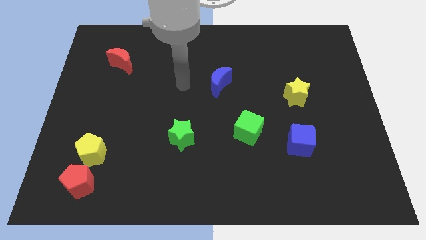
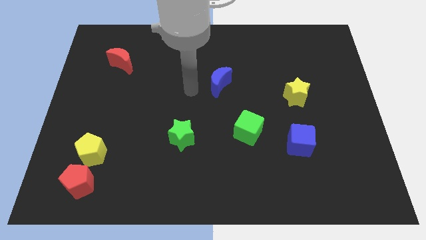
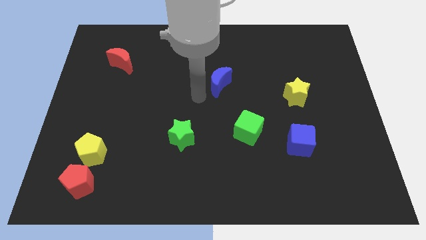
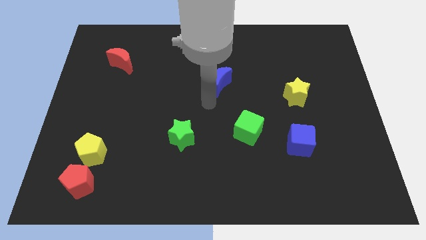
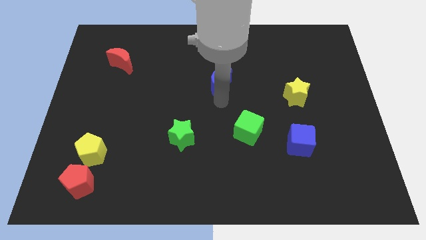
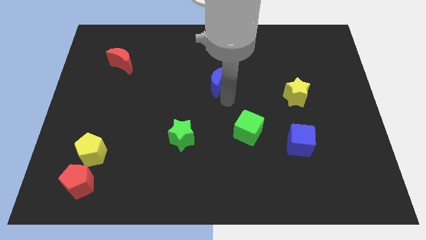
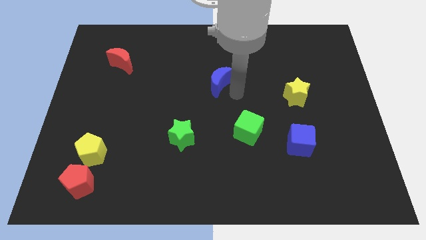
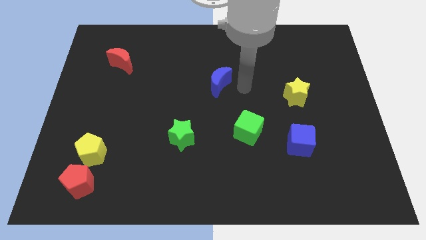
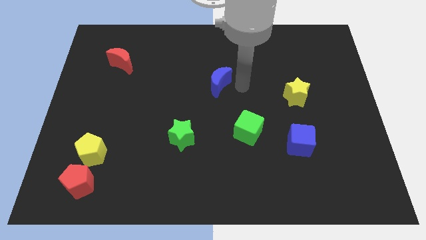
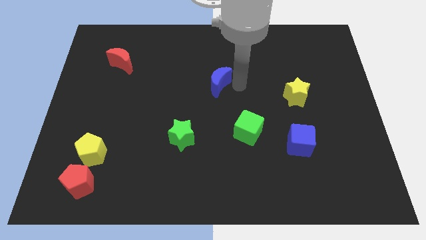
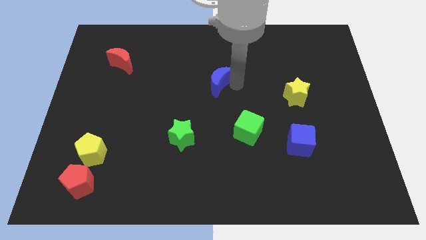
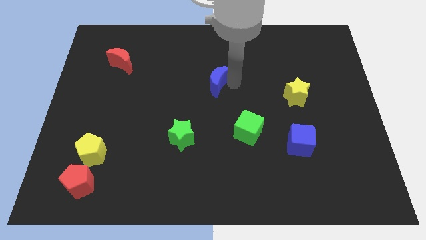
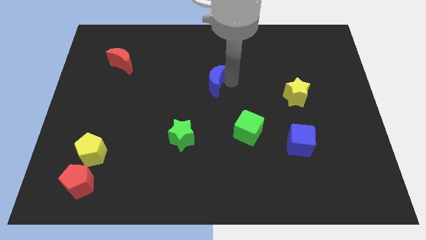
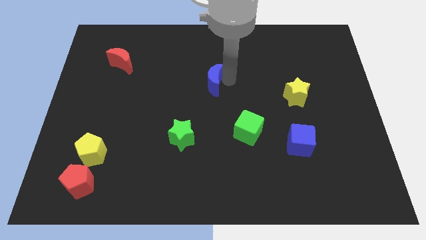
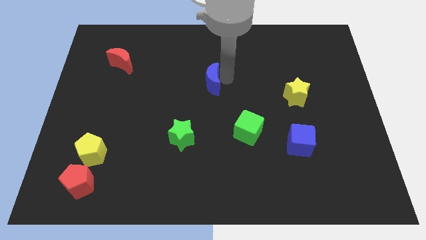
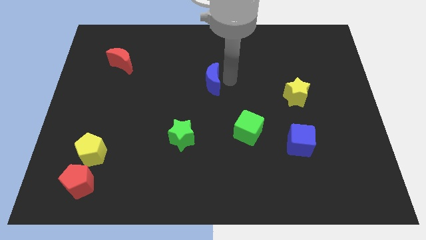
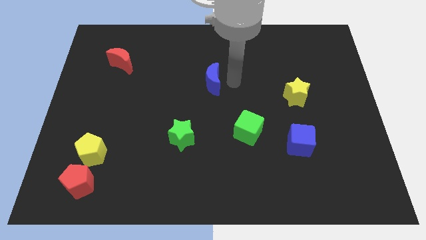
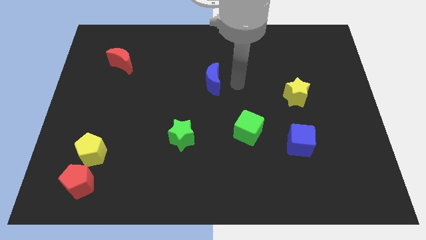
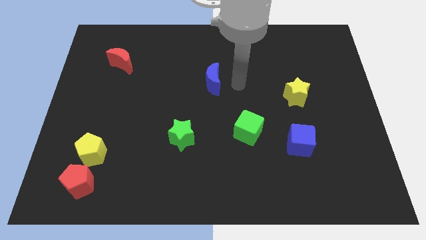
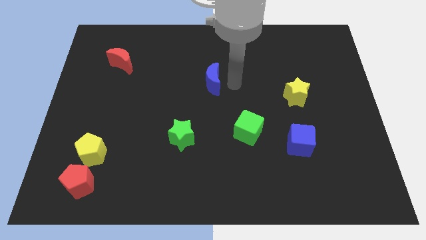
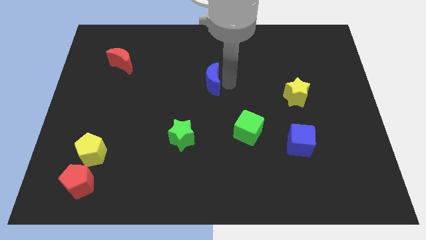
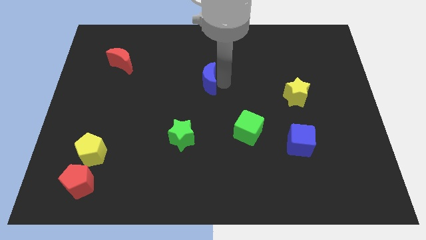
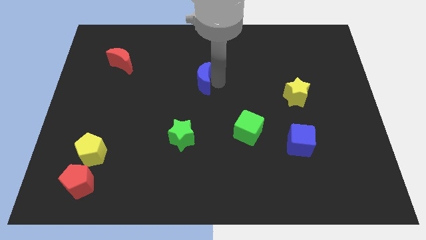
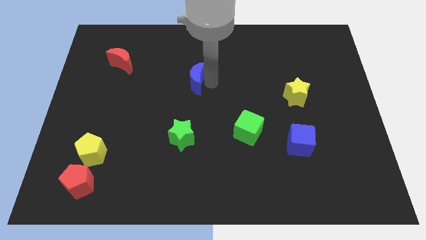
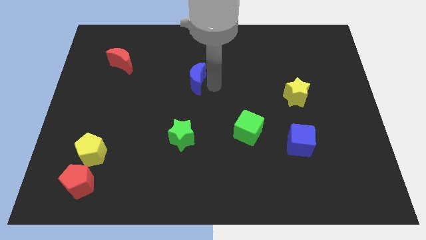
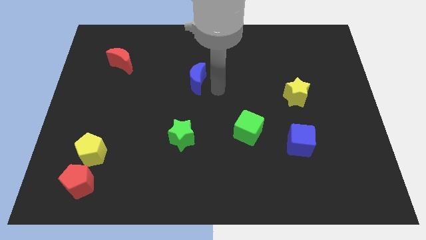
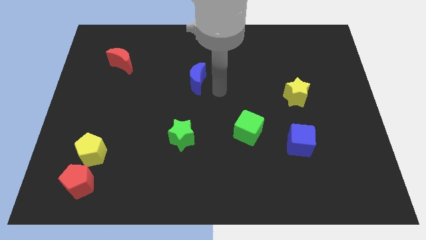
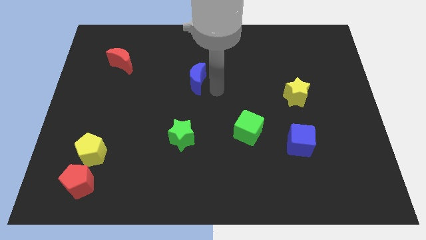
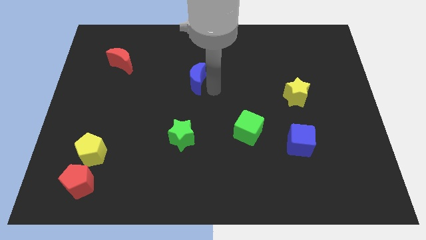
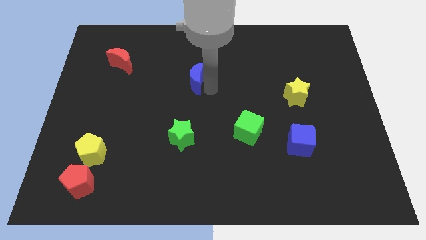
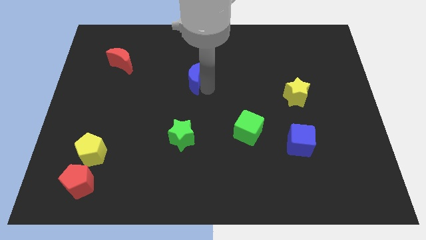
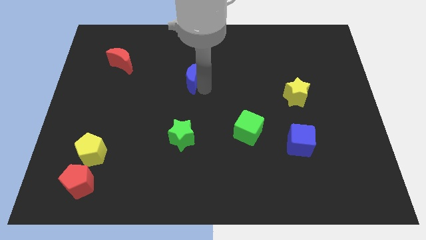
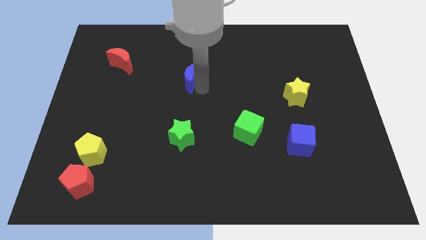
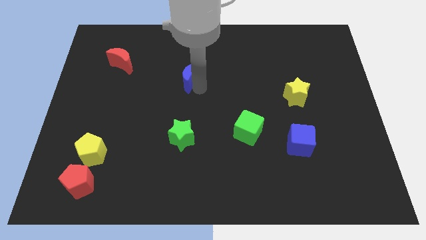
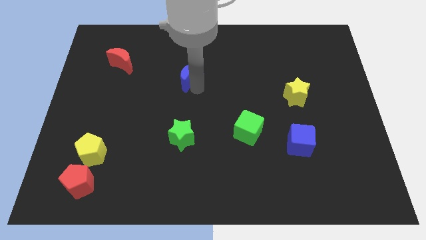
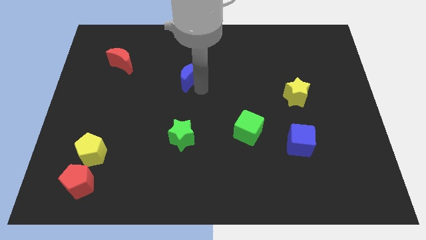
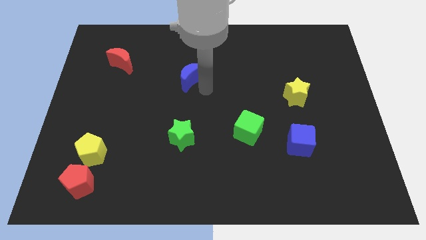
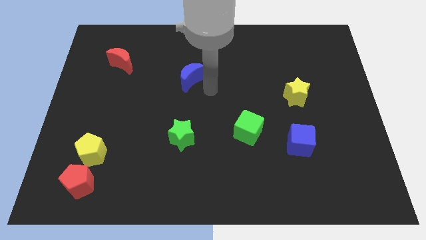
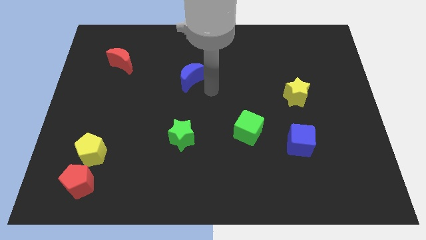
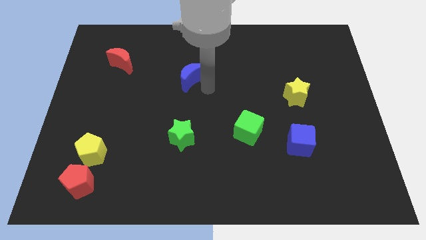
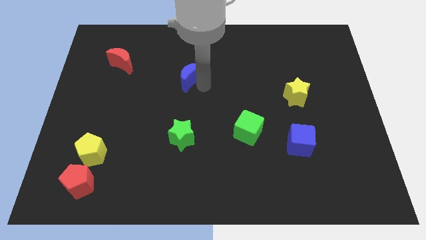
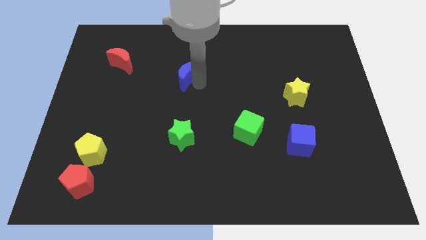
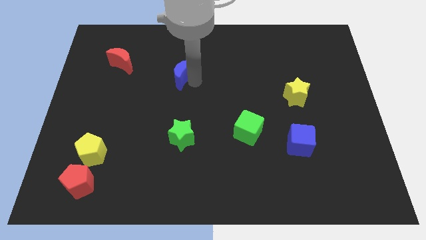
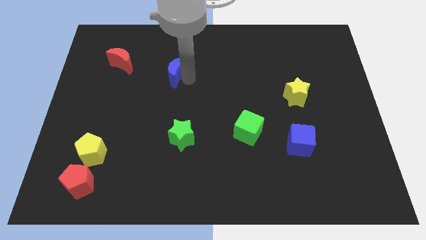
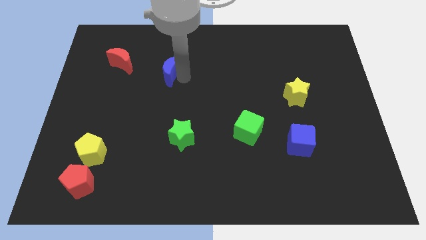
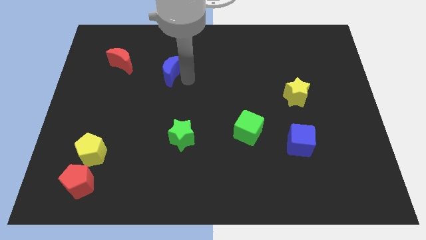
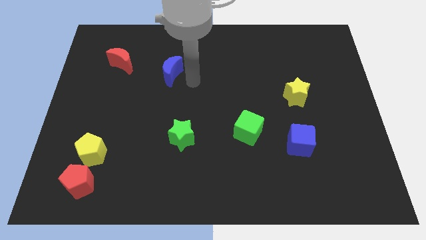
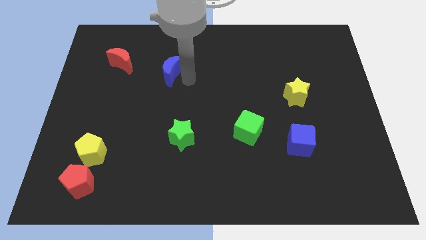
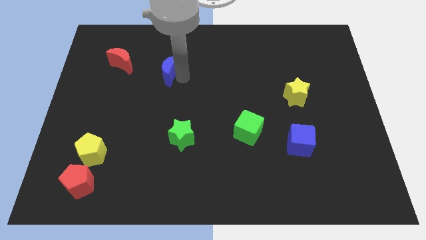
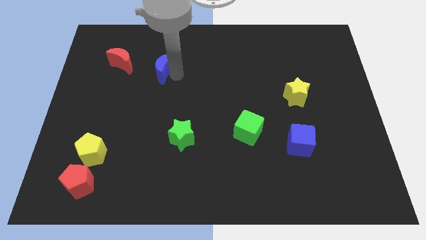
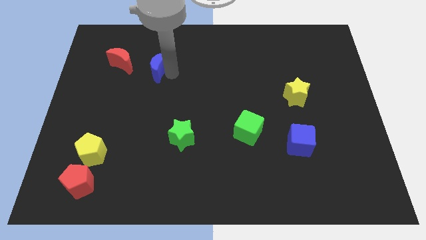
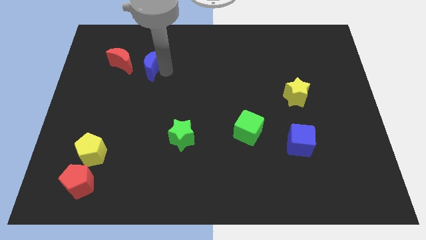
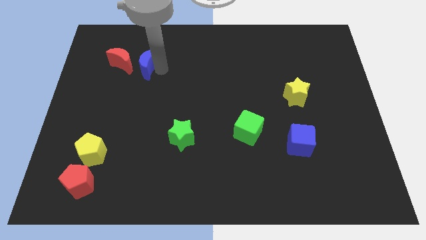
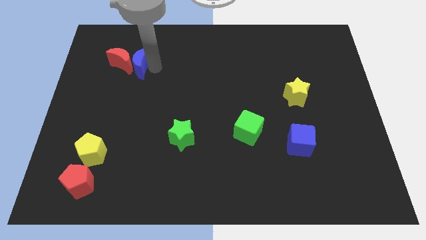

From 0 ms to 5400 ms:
put the blue moon to the red moon

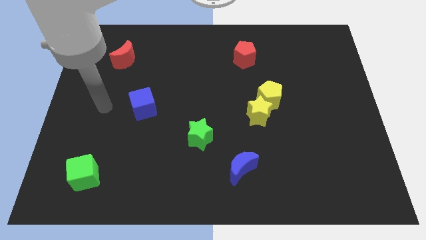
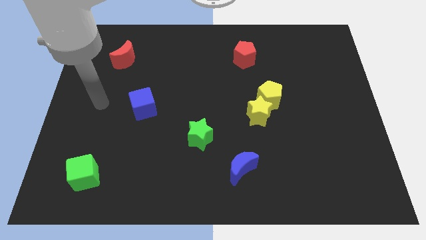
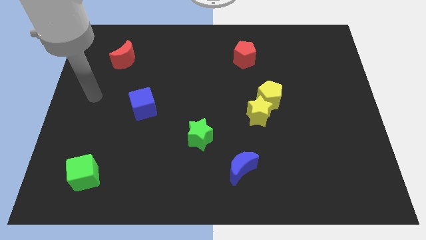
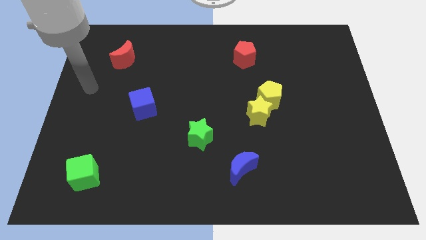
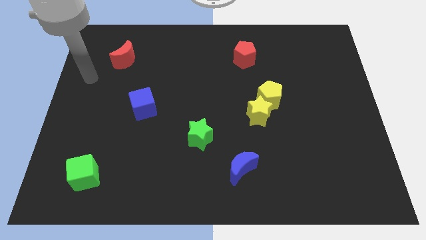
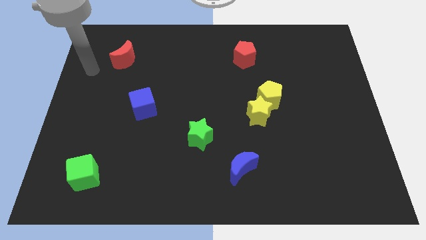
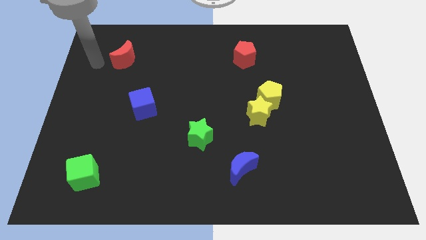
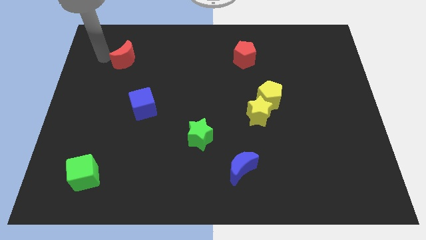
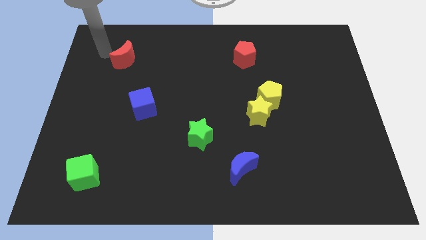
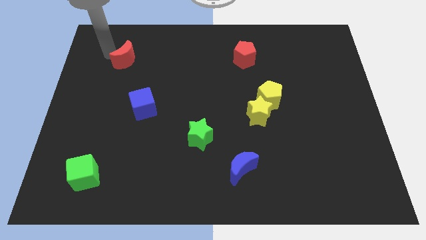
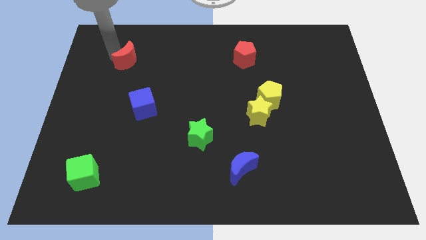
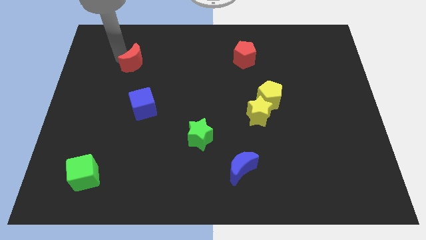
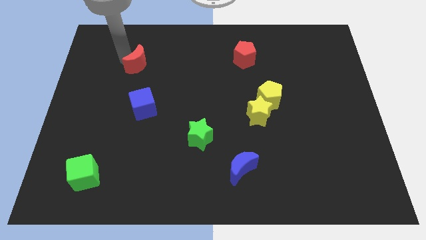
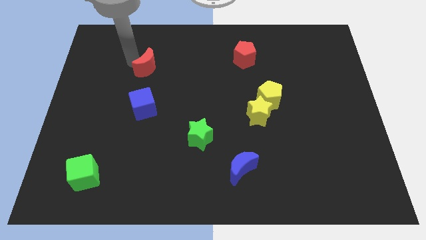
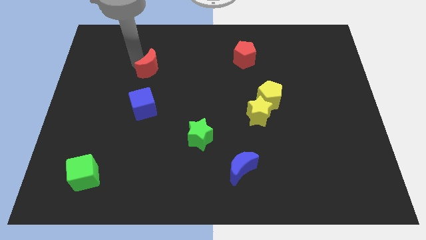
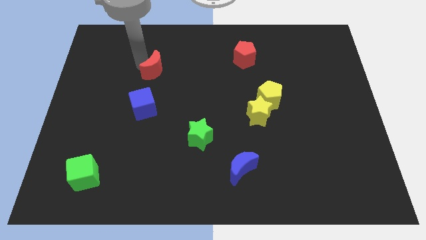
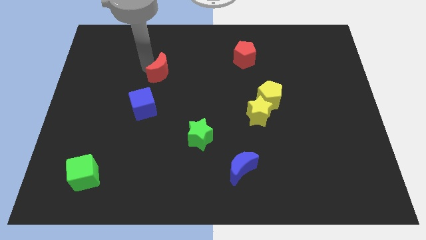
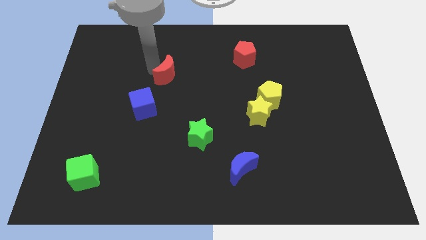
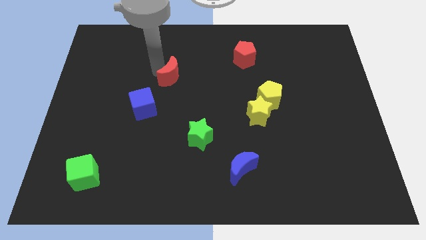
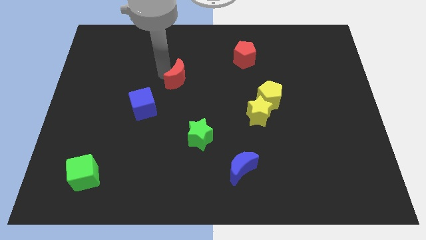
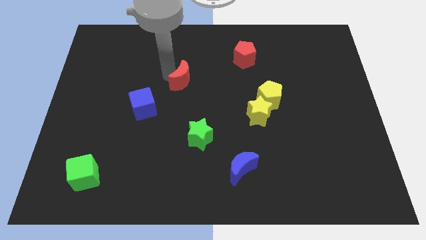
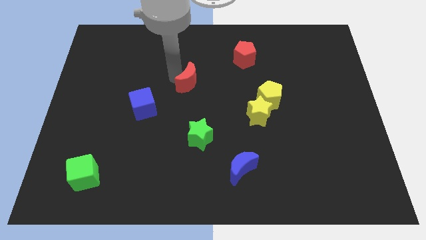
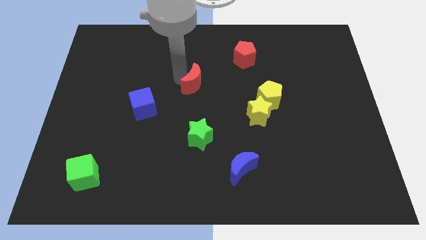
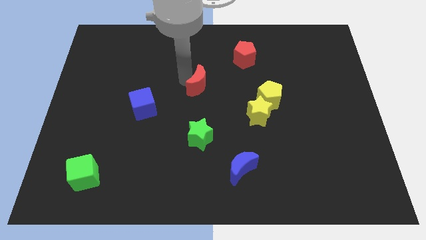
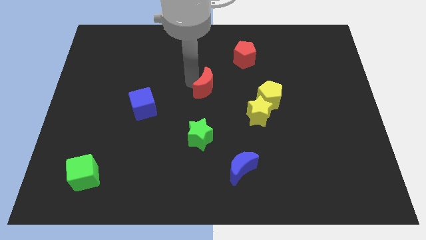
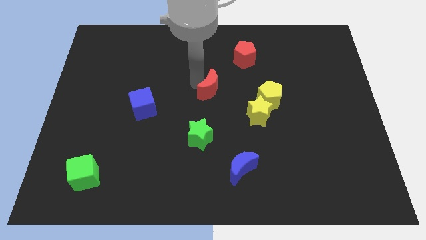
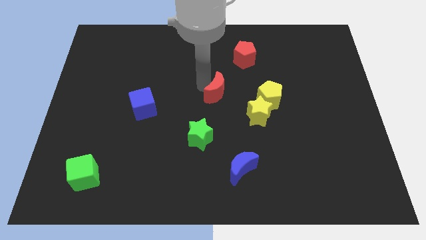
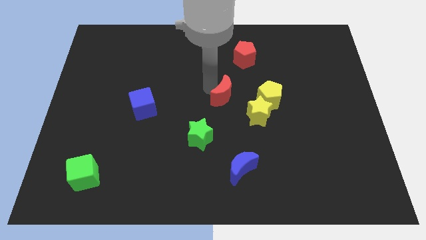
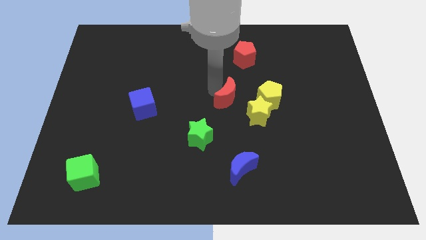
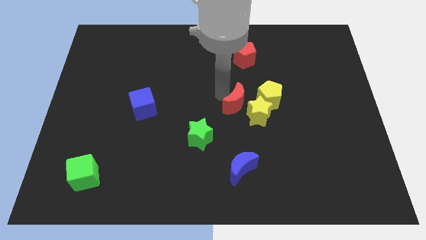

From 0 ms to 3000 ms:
push the red moon to the yellow star
